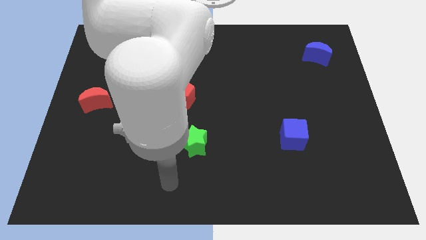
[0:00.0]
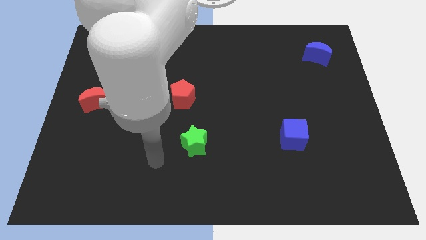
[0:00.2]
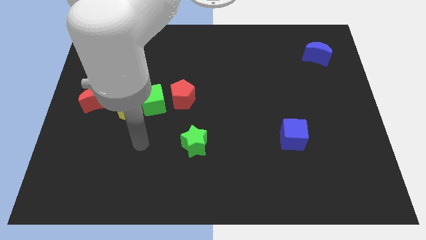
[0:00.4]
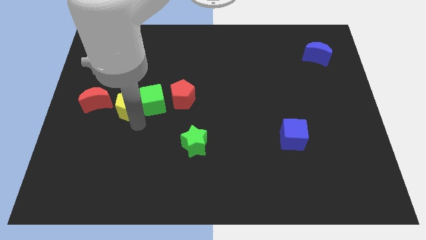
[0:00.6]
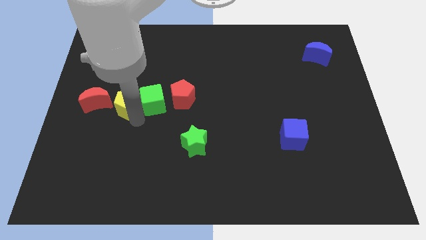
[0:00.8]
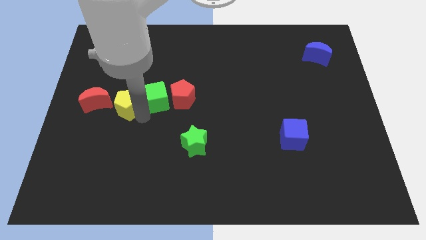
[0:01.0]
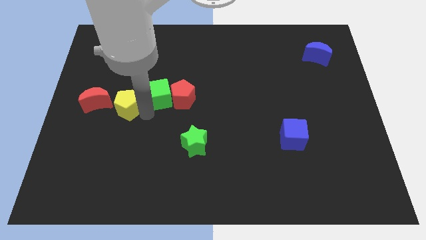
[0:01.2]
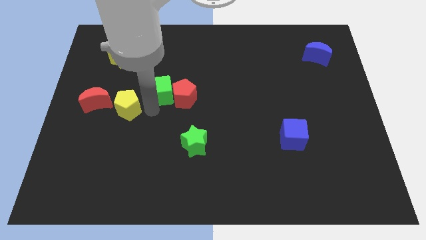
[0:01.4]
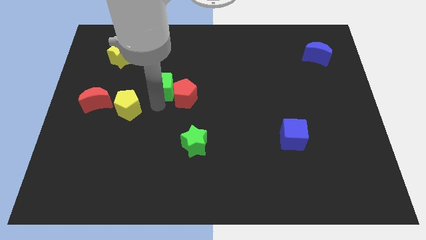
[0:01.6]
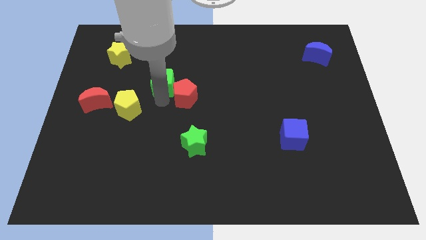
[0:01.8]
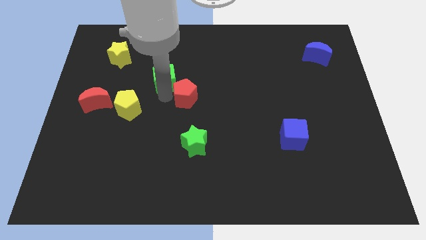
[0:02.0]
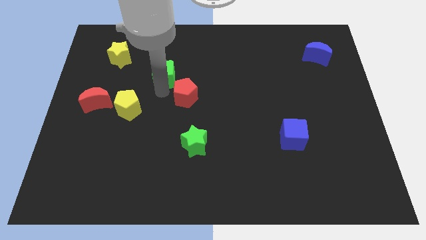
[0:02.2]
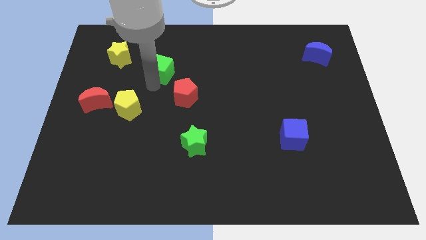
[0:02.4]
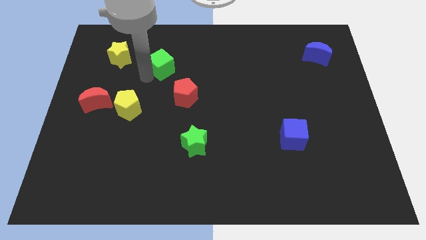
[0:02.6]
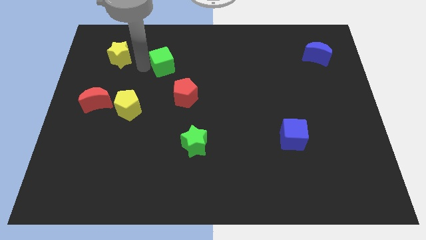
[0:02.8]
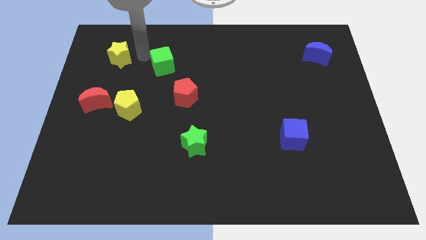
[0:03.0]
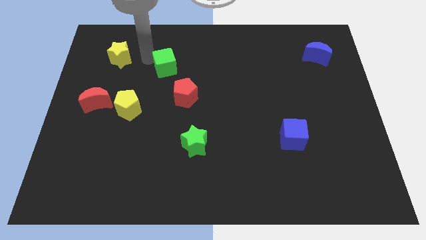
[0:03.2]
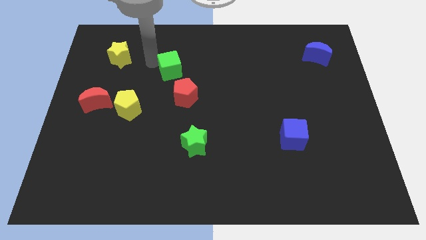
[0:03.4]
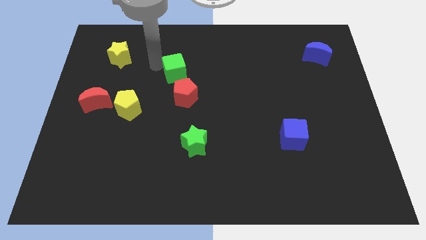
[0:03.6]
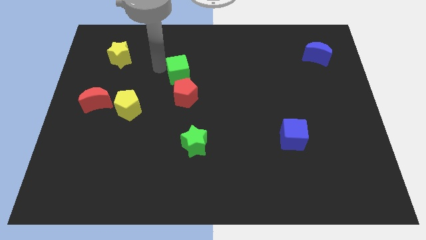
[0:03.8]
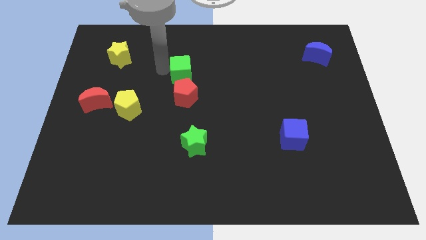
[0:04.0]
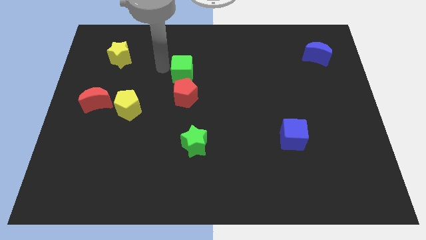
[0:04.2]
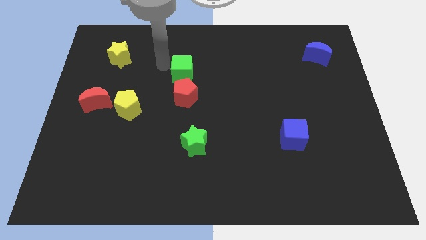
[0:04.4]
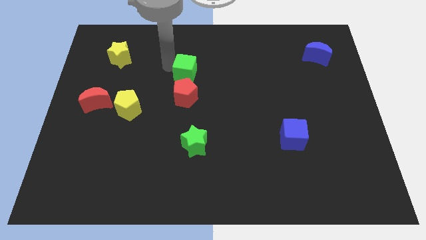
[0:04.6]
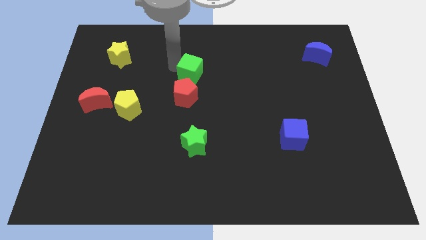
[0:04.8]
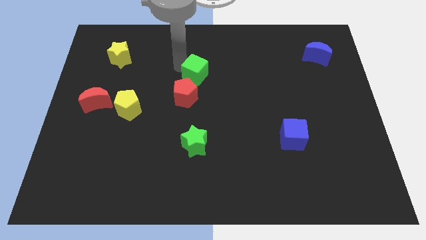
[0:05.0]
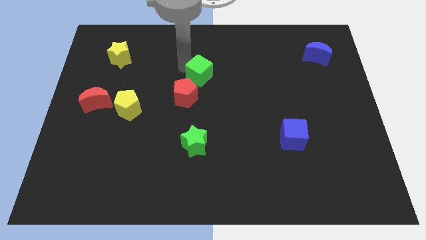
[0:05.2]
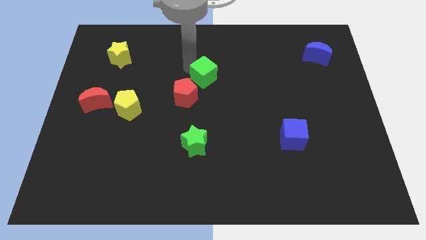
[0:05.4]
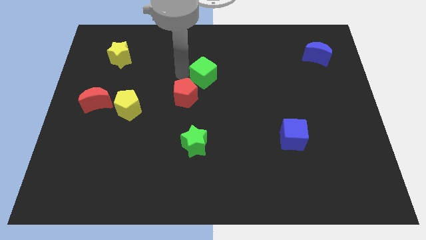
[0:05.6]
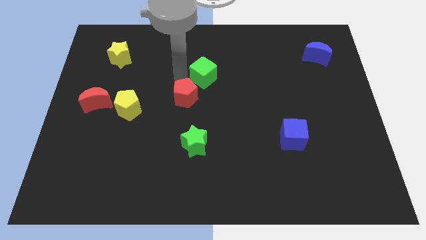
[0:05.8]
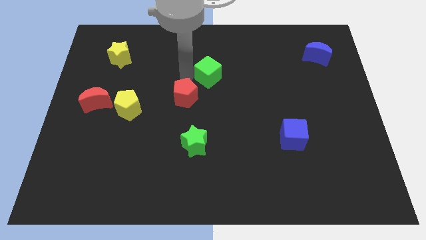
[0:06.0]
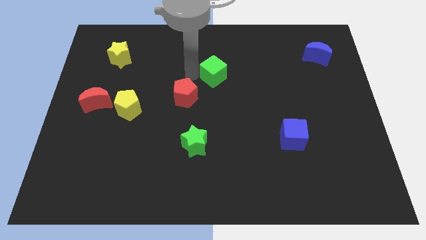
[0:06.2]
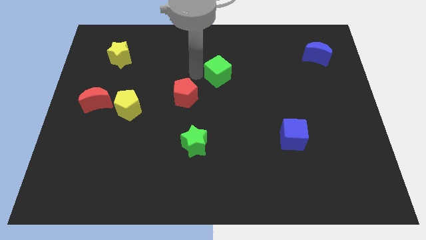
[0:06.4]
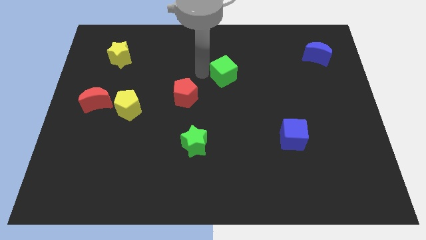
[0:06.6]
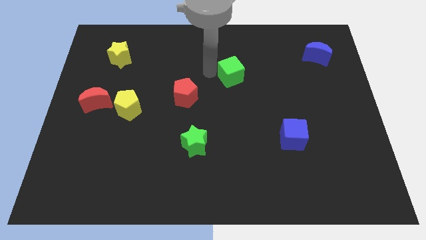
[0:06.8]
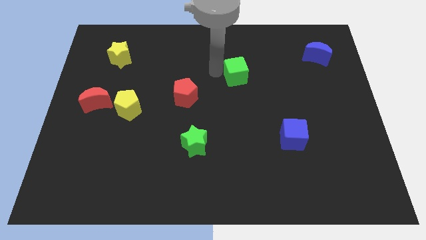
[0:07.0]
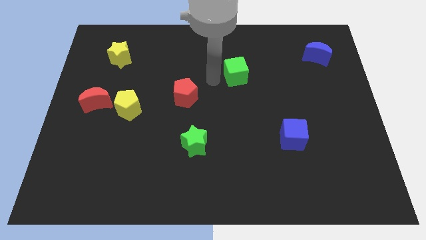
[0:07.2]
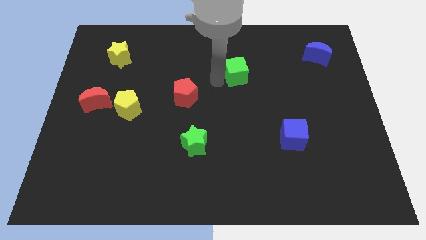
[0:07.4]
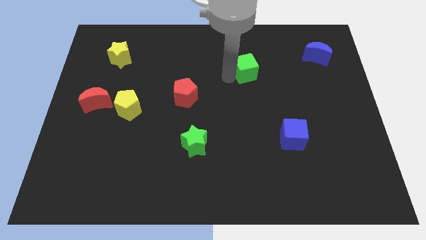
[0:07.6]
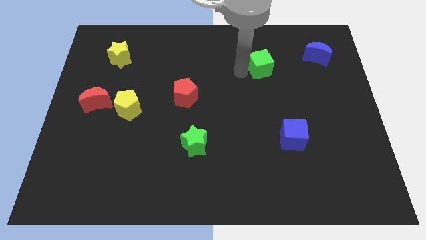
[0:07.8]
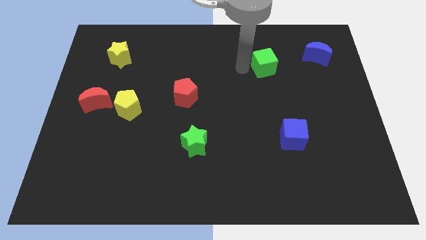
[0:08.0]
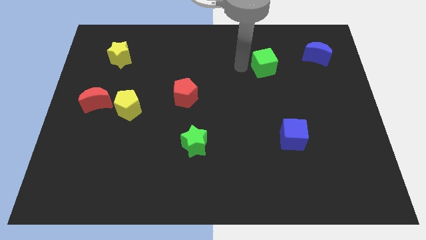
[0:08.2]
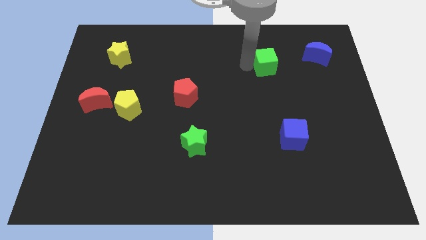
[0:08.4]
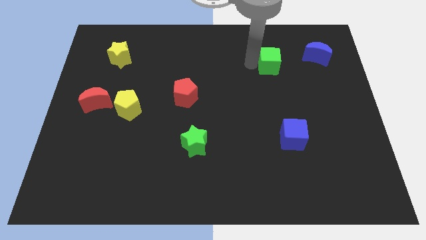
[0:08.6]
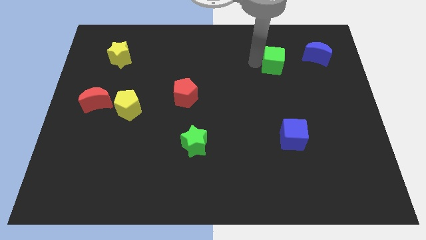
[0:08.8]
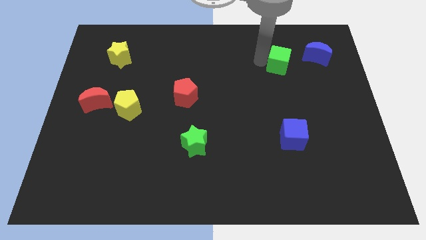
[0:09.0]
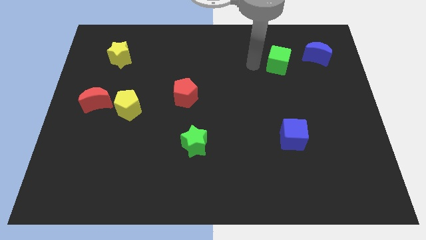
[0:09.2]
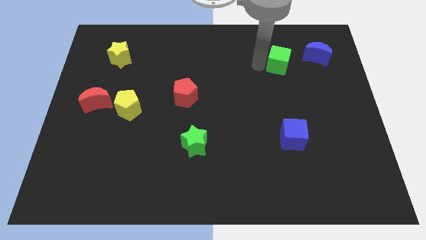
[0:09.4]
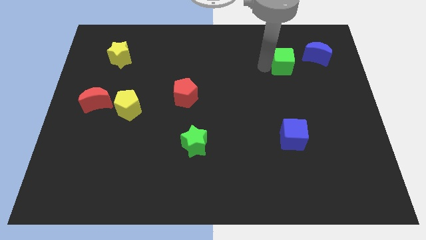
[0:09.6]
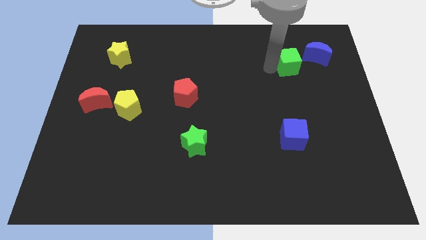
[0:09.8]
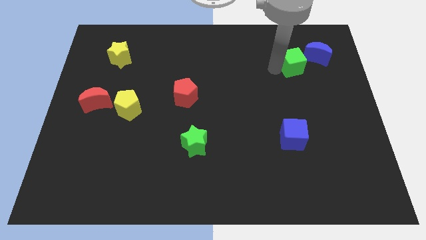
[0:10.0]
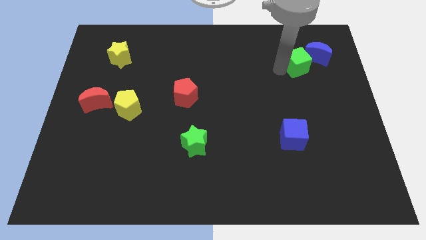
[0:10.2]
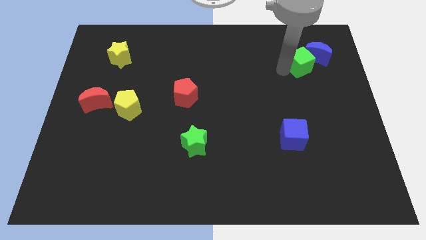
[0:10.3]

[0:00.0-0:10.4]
push the green cube to the blue moon

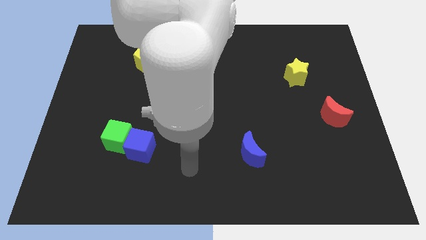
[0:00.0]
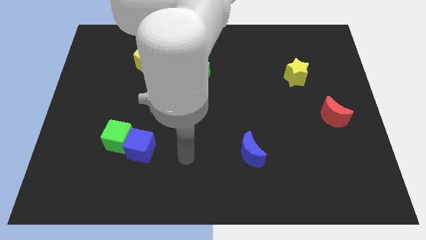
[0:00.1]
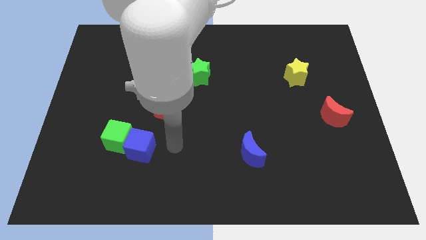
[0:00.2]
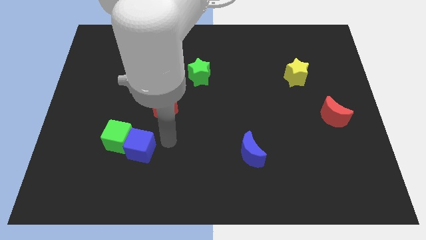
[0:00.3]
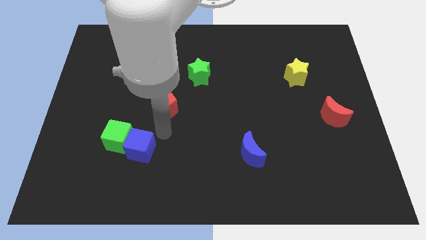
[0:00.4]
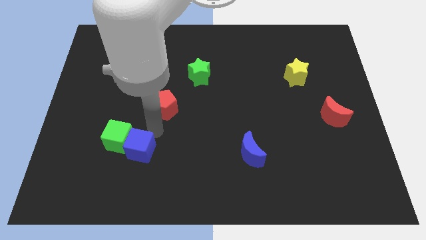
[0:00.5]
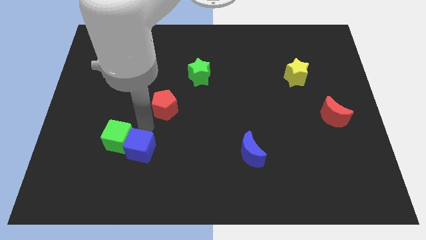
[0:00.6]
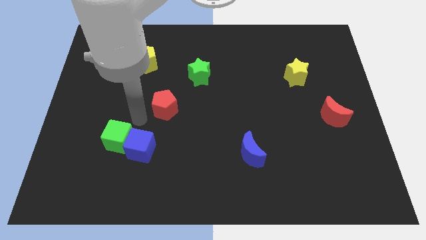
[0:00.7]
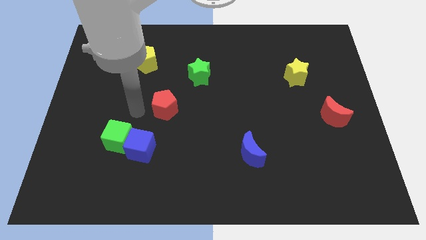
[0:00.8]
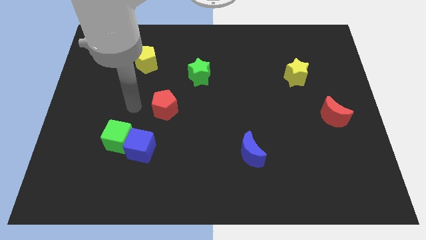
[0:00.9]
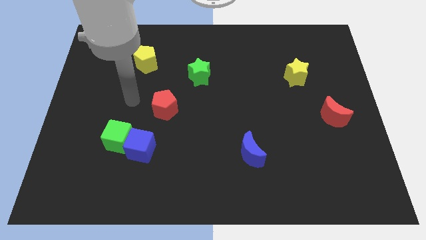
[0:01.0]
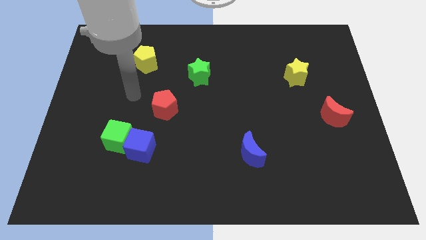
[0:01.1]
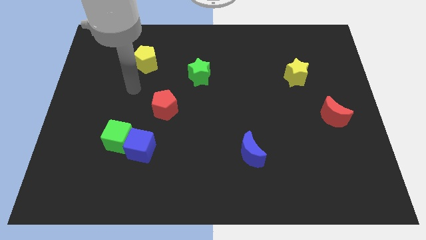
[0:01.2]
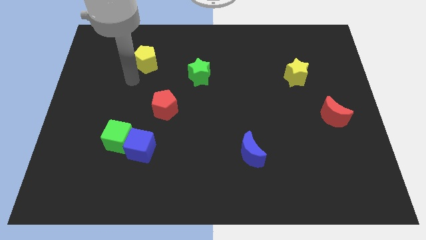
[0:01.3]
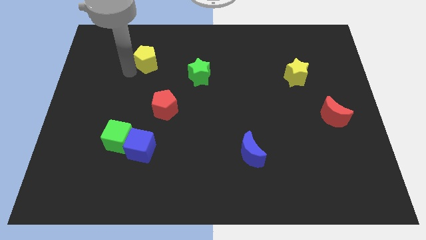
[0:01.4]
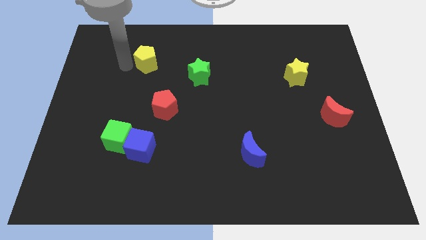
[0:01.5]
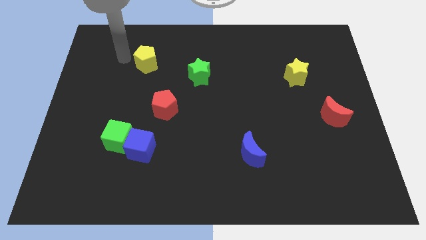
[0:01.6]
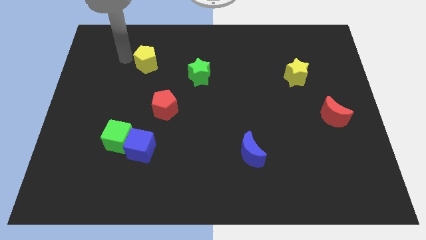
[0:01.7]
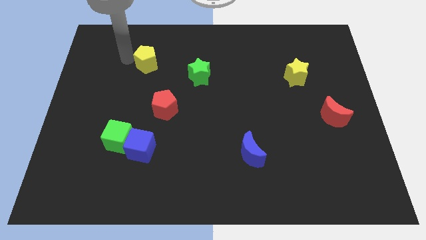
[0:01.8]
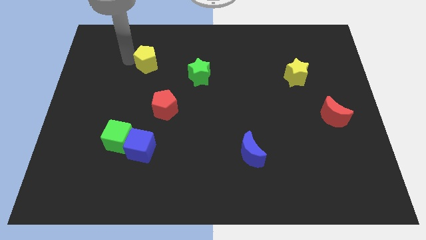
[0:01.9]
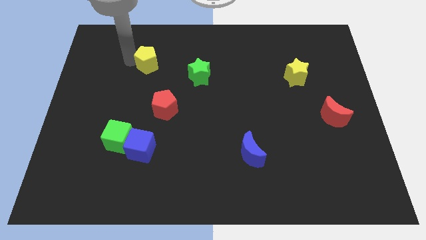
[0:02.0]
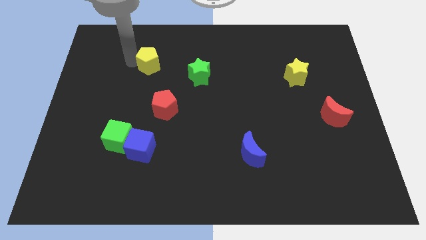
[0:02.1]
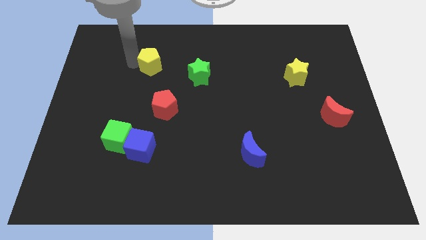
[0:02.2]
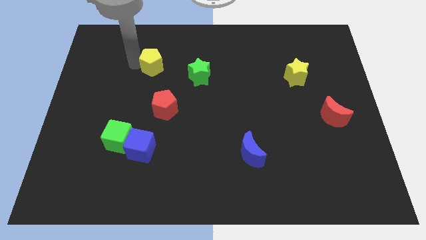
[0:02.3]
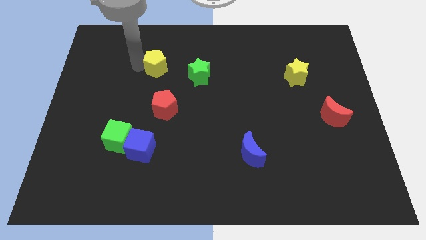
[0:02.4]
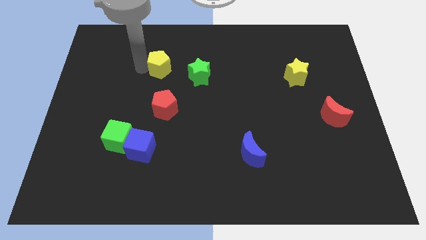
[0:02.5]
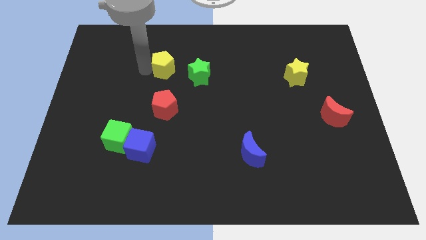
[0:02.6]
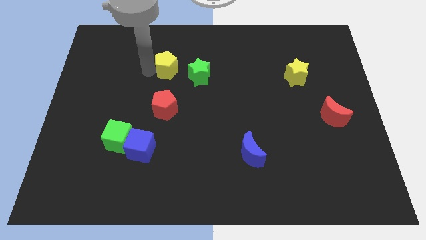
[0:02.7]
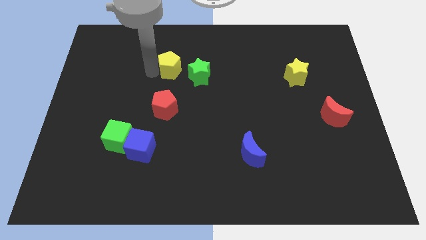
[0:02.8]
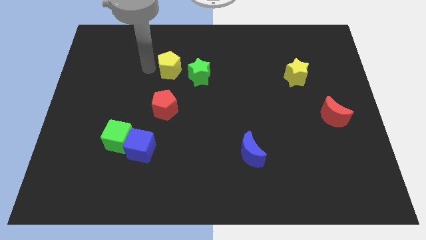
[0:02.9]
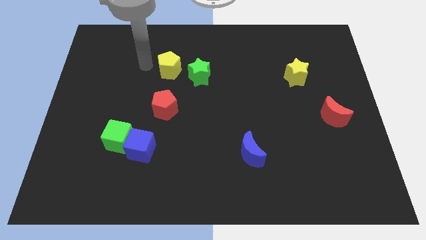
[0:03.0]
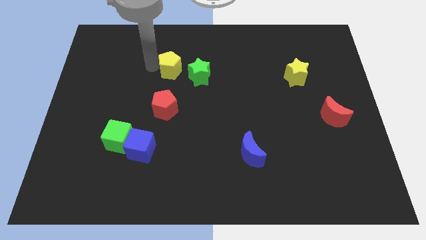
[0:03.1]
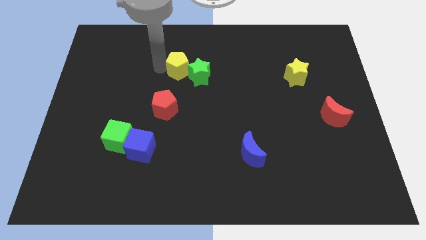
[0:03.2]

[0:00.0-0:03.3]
put the yellow pentagon to the green star
